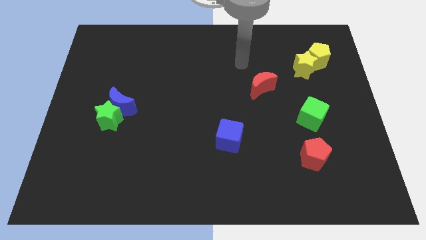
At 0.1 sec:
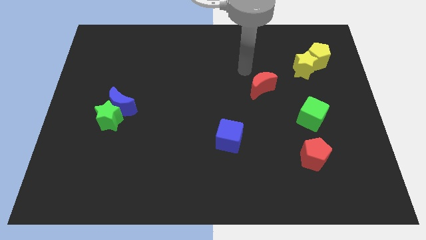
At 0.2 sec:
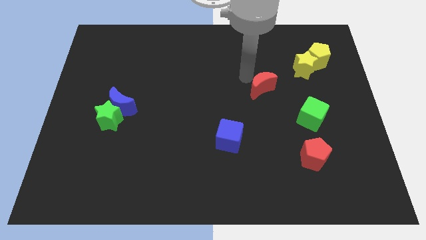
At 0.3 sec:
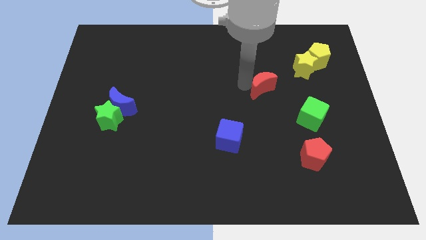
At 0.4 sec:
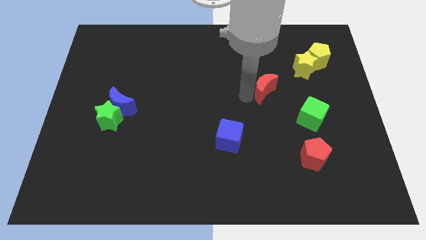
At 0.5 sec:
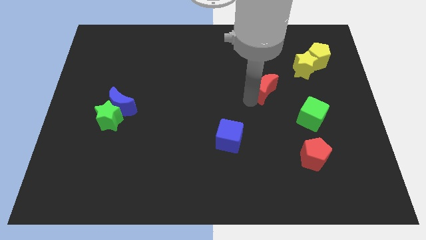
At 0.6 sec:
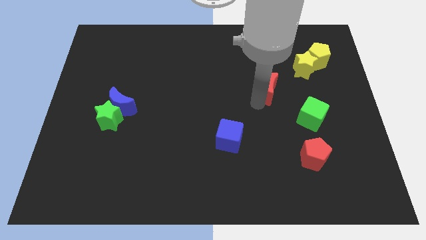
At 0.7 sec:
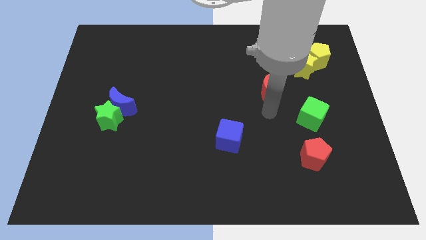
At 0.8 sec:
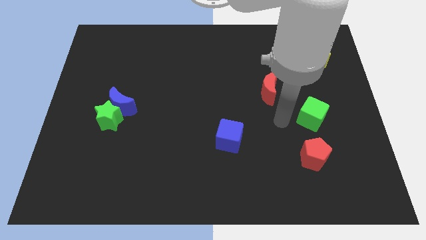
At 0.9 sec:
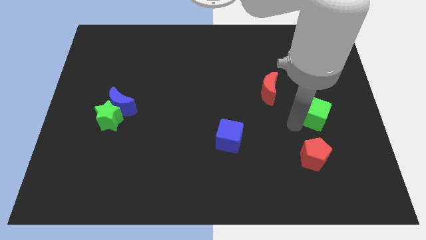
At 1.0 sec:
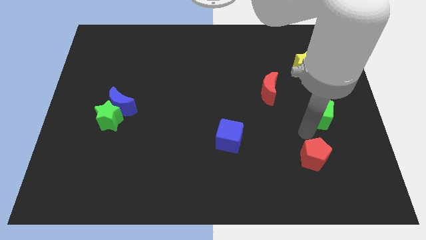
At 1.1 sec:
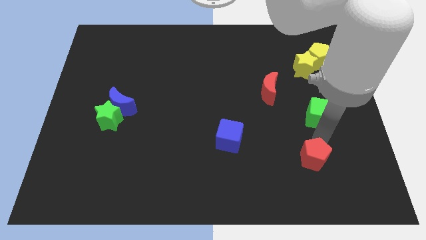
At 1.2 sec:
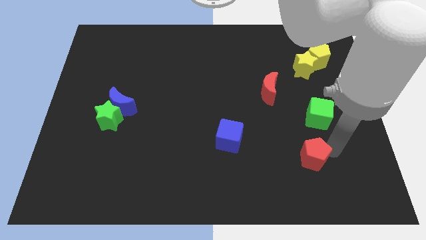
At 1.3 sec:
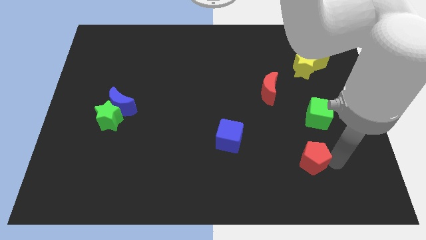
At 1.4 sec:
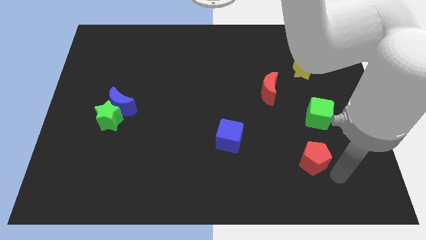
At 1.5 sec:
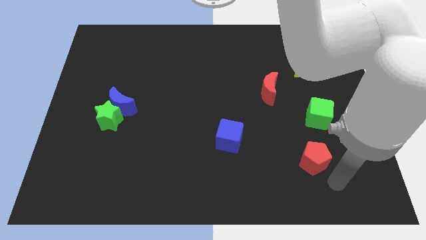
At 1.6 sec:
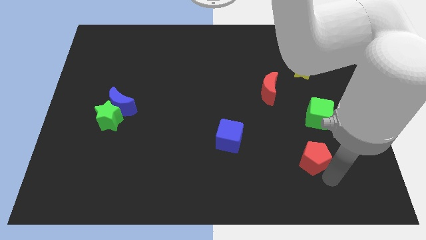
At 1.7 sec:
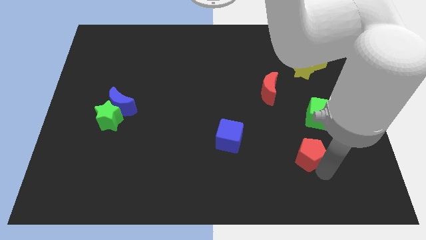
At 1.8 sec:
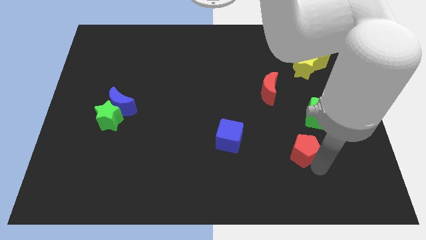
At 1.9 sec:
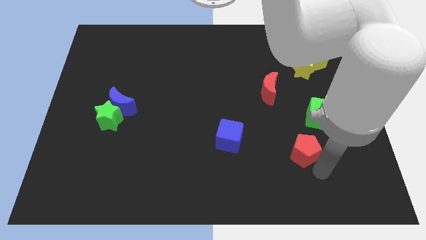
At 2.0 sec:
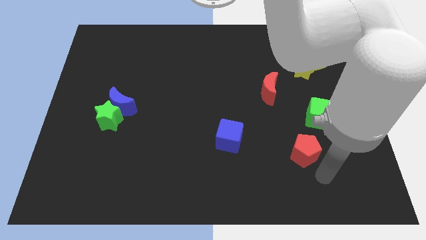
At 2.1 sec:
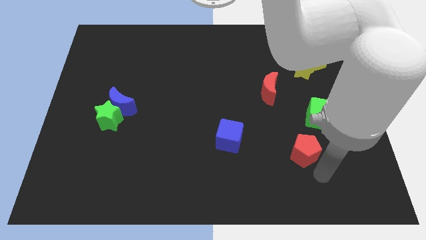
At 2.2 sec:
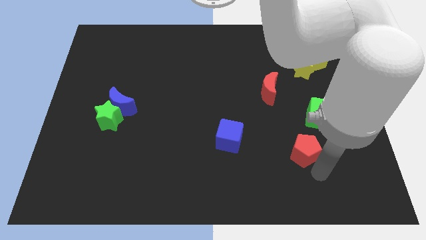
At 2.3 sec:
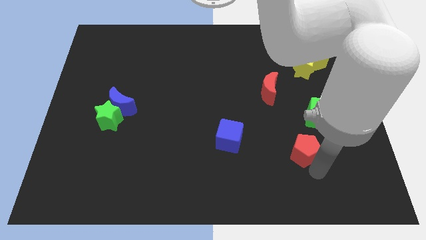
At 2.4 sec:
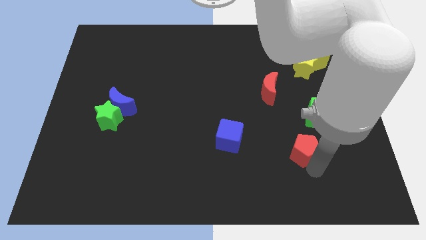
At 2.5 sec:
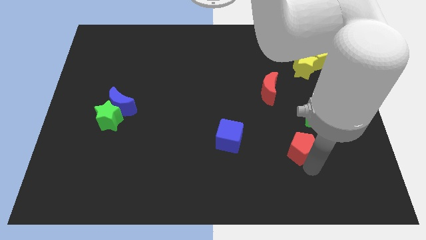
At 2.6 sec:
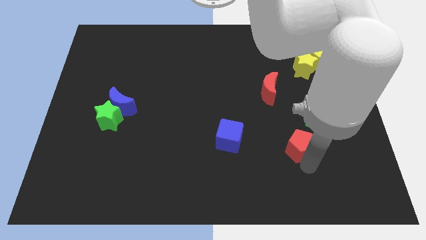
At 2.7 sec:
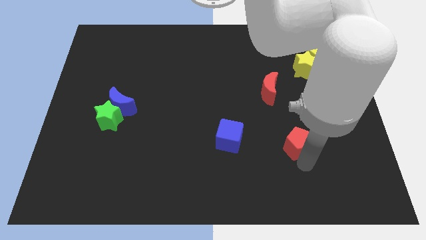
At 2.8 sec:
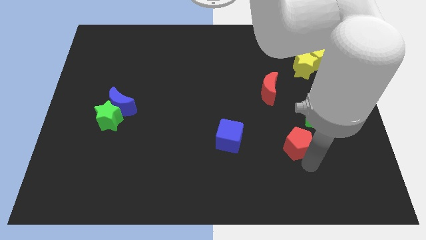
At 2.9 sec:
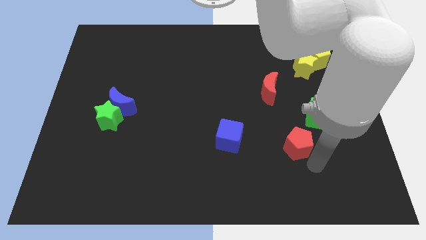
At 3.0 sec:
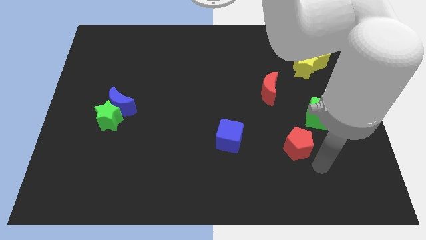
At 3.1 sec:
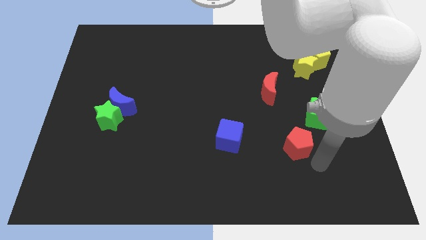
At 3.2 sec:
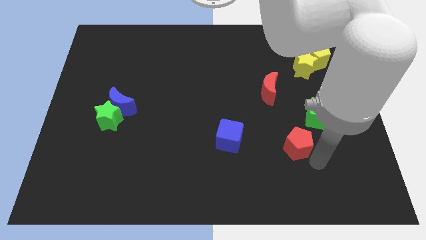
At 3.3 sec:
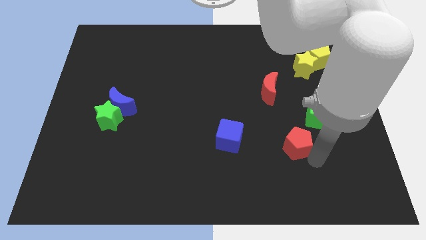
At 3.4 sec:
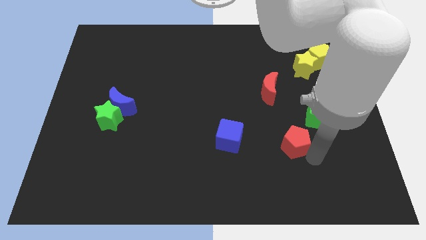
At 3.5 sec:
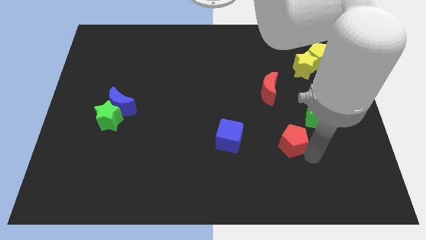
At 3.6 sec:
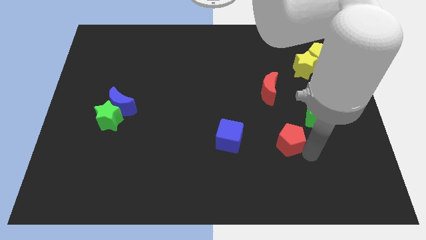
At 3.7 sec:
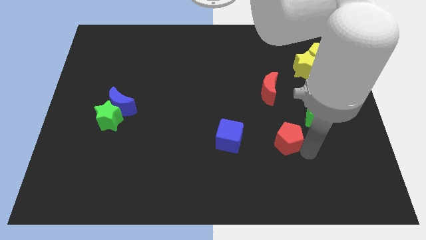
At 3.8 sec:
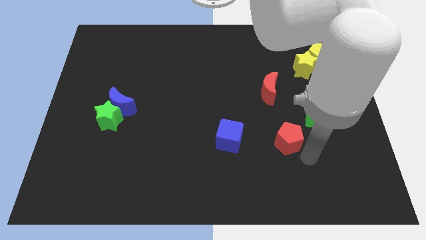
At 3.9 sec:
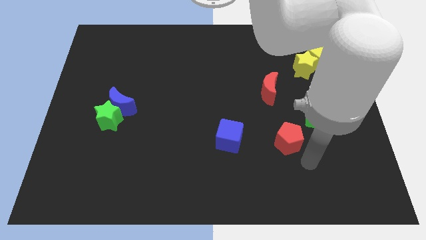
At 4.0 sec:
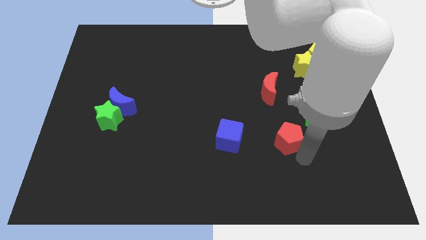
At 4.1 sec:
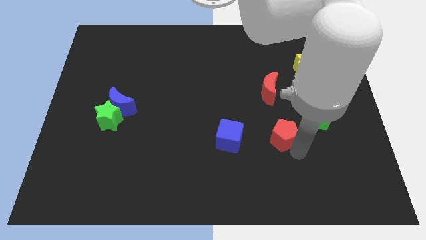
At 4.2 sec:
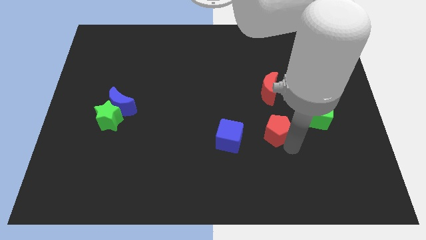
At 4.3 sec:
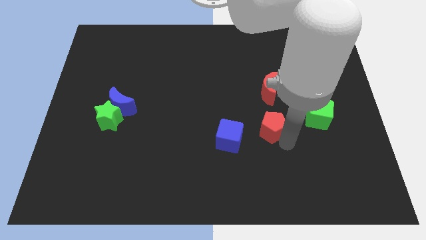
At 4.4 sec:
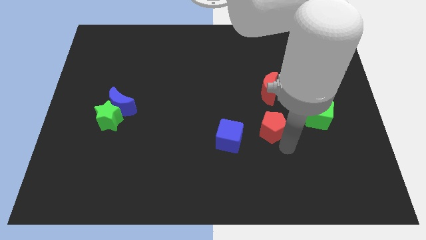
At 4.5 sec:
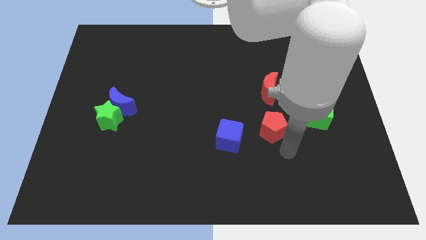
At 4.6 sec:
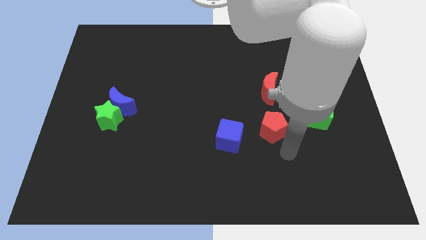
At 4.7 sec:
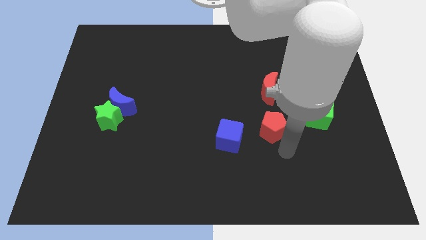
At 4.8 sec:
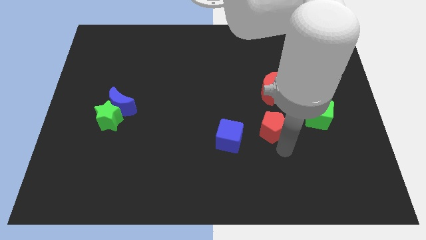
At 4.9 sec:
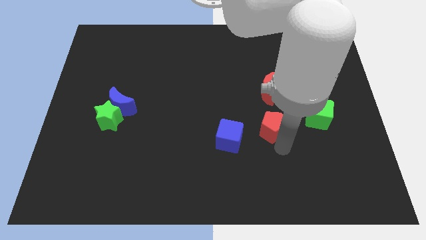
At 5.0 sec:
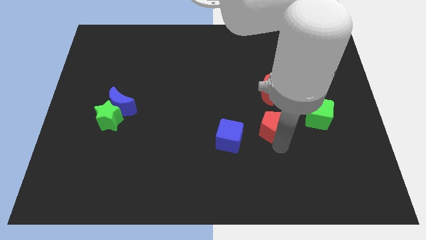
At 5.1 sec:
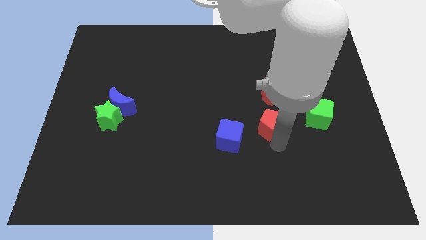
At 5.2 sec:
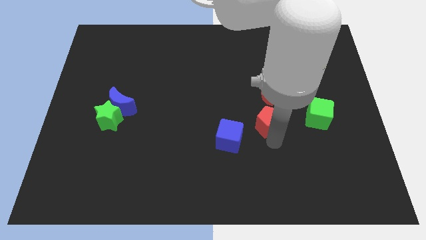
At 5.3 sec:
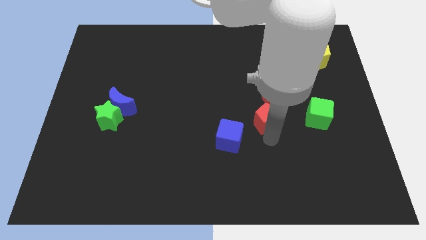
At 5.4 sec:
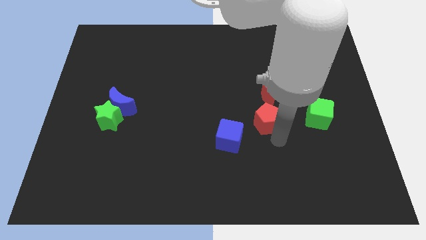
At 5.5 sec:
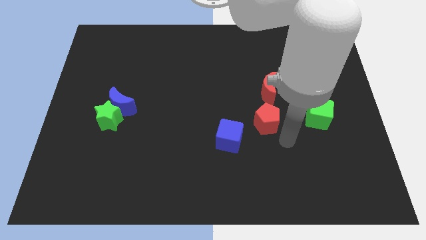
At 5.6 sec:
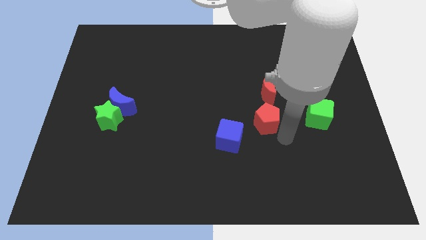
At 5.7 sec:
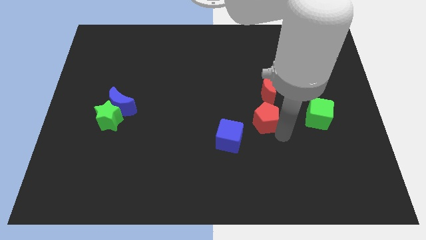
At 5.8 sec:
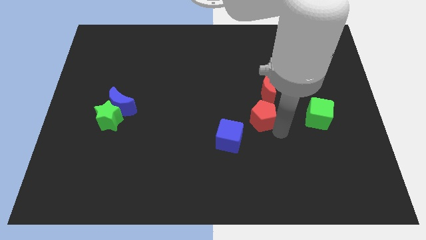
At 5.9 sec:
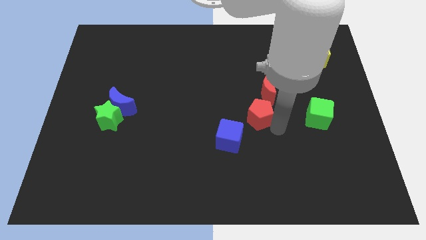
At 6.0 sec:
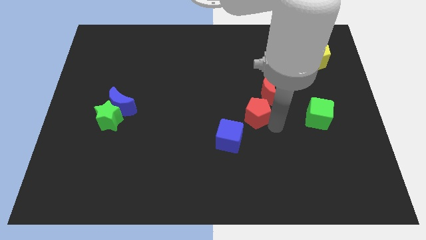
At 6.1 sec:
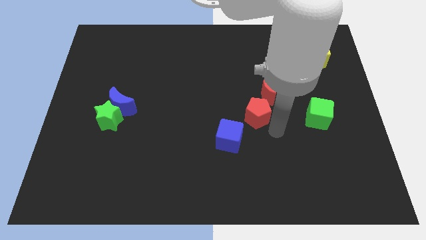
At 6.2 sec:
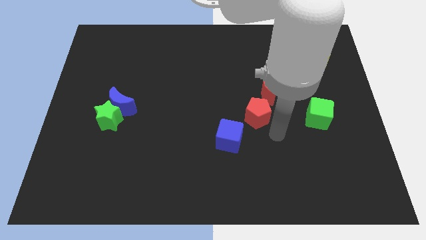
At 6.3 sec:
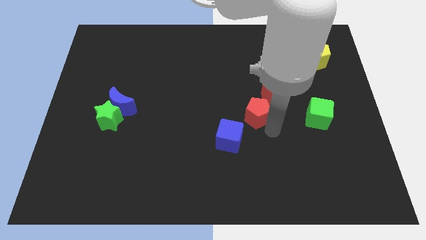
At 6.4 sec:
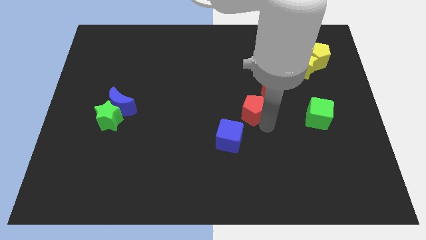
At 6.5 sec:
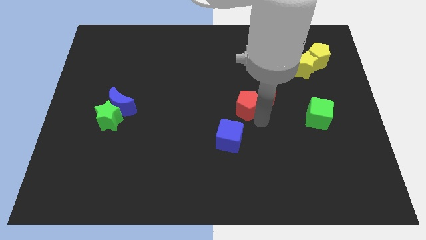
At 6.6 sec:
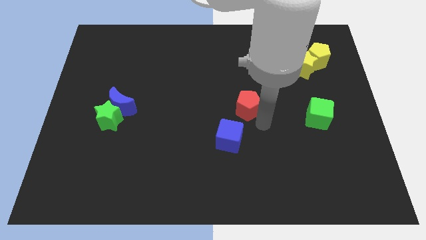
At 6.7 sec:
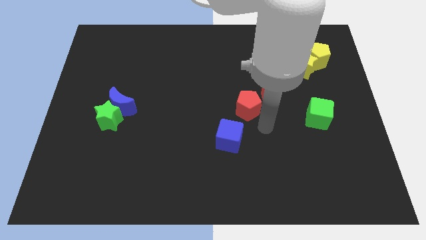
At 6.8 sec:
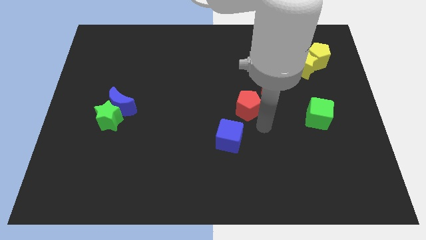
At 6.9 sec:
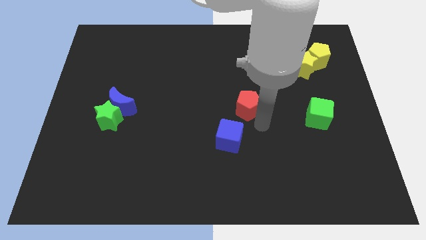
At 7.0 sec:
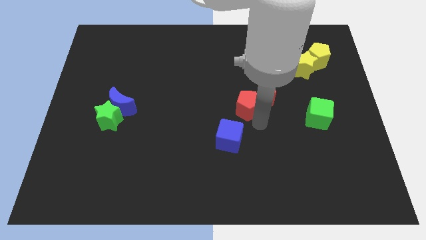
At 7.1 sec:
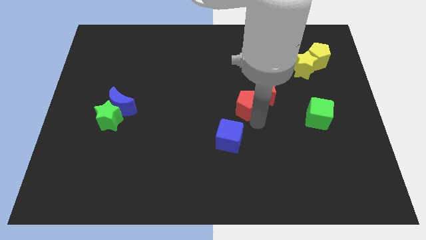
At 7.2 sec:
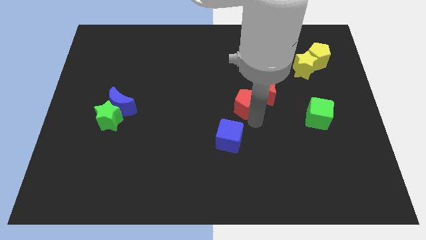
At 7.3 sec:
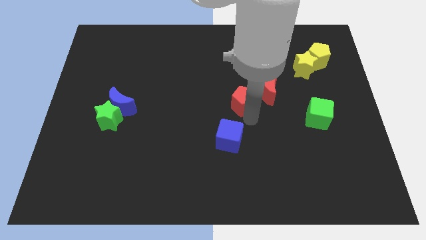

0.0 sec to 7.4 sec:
slide the red pentagon upwards and left

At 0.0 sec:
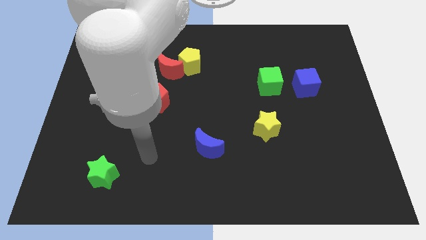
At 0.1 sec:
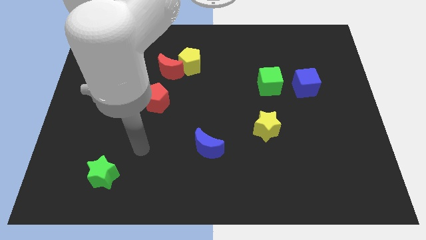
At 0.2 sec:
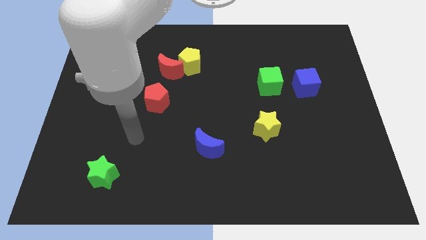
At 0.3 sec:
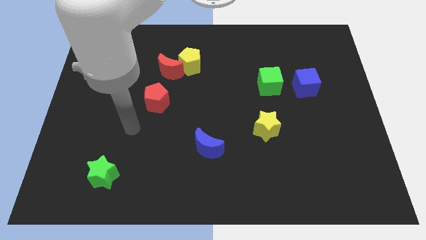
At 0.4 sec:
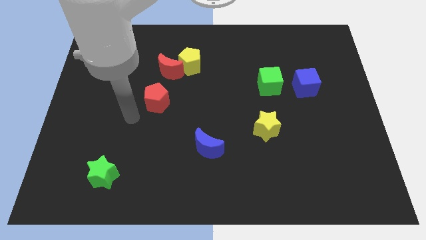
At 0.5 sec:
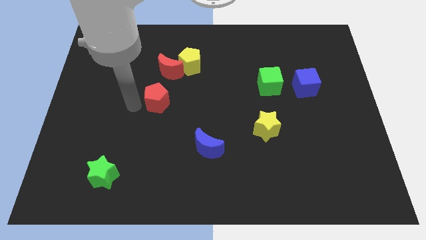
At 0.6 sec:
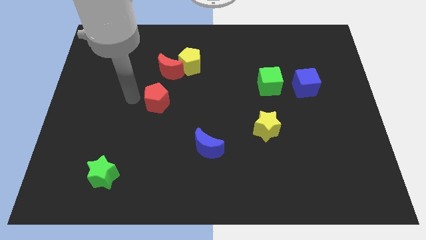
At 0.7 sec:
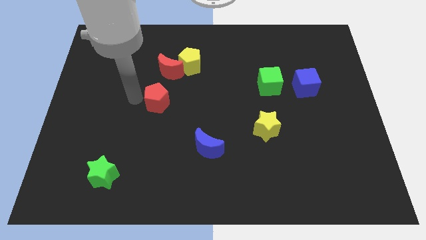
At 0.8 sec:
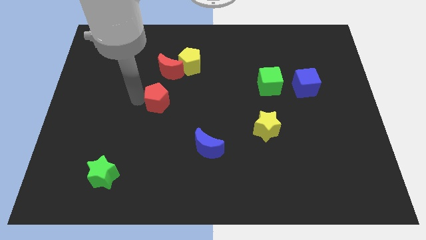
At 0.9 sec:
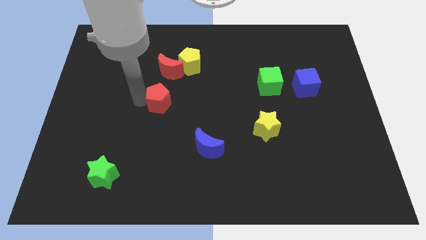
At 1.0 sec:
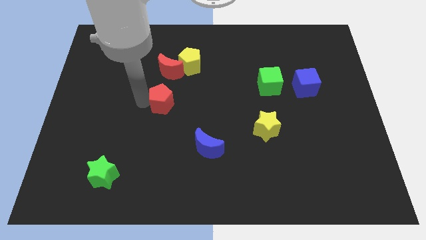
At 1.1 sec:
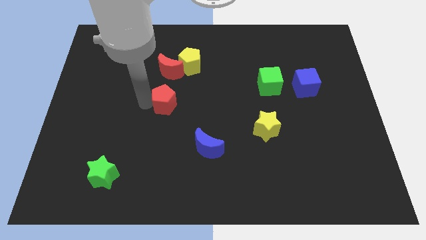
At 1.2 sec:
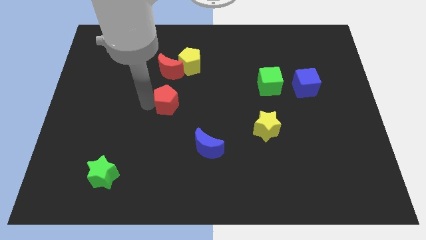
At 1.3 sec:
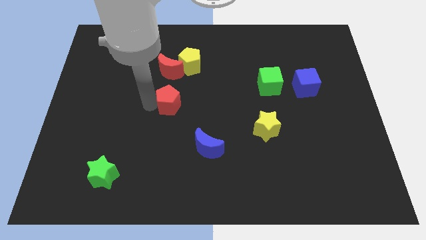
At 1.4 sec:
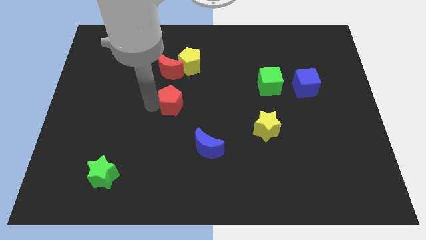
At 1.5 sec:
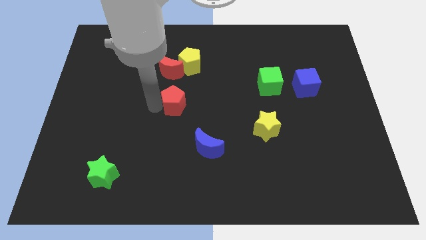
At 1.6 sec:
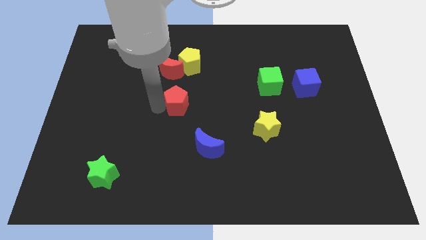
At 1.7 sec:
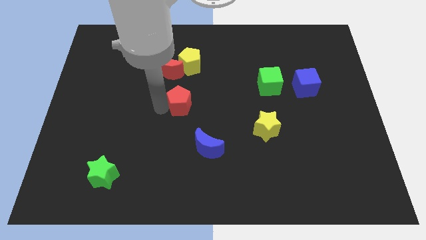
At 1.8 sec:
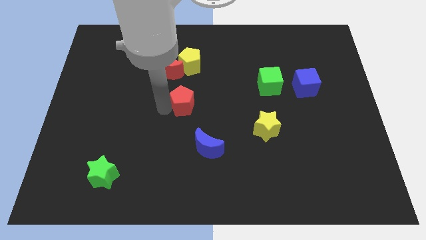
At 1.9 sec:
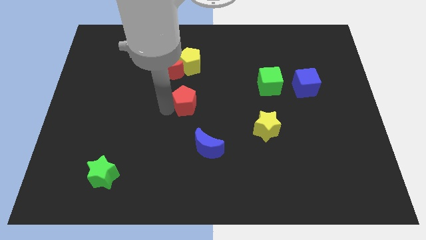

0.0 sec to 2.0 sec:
slide the red pentagon right a little bit
